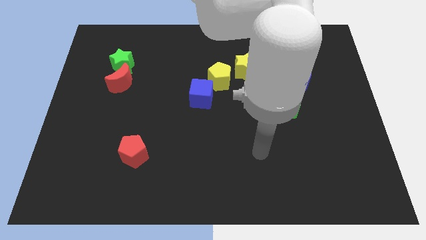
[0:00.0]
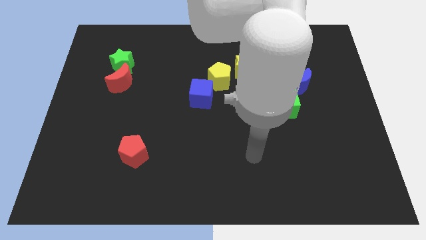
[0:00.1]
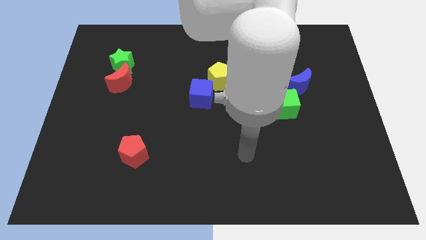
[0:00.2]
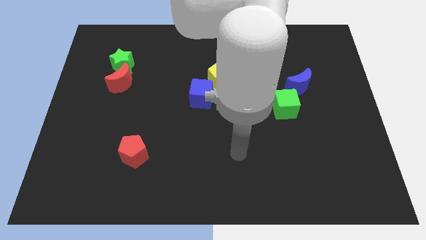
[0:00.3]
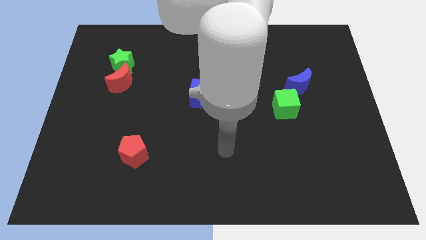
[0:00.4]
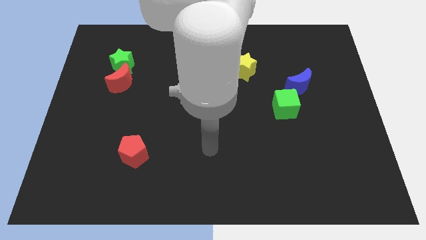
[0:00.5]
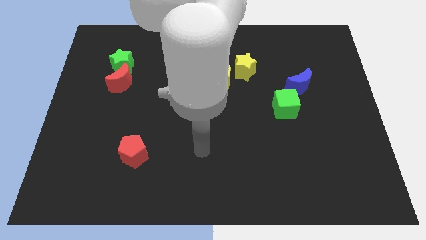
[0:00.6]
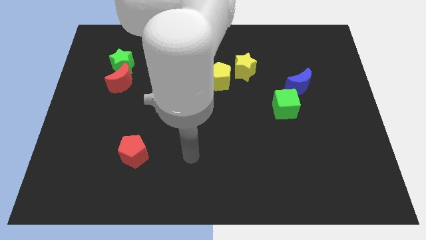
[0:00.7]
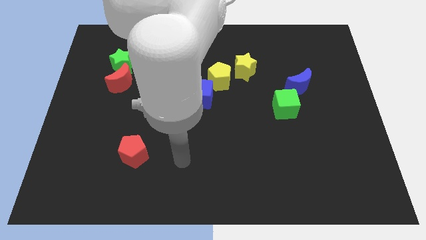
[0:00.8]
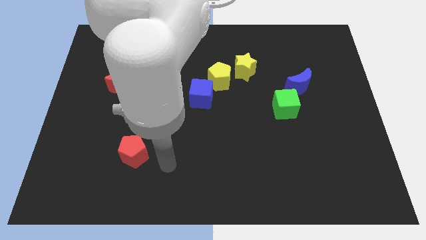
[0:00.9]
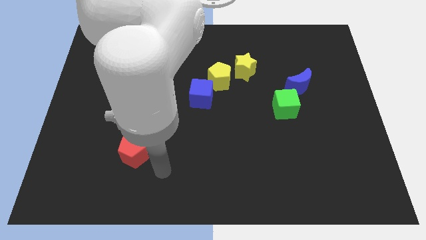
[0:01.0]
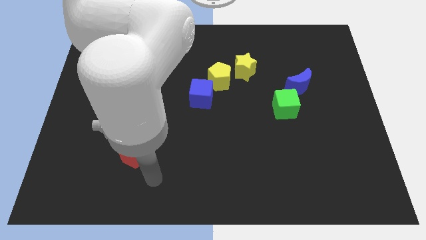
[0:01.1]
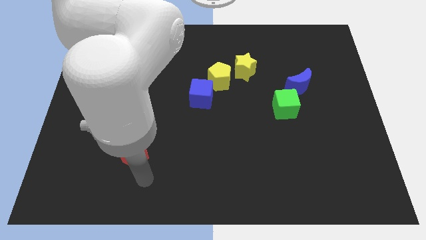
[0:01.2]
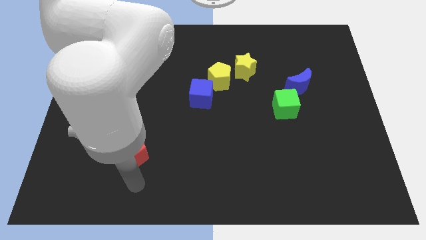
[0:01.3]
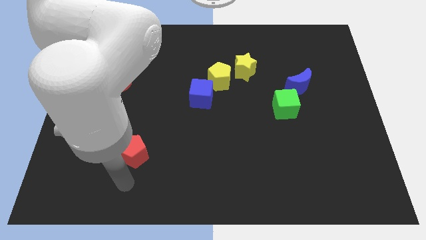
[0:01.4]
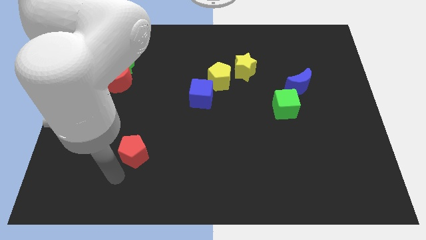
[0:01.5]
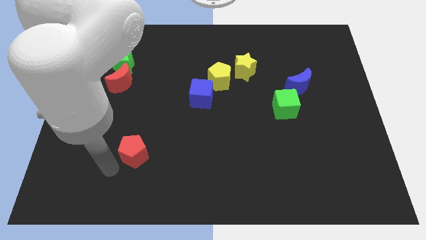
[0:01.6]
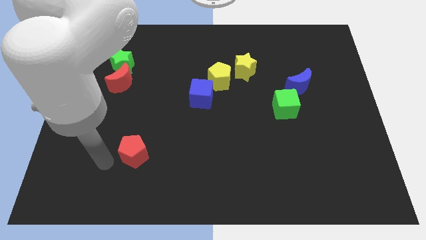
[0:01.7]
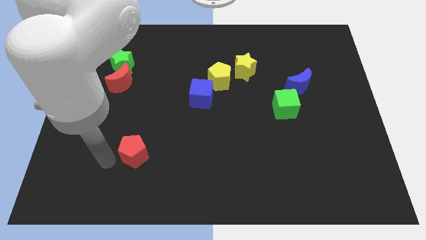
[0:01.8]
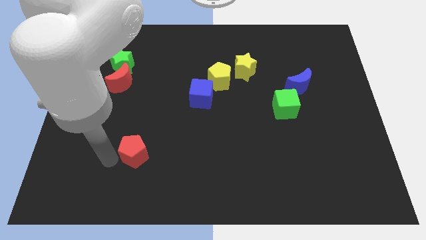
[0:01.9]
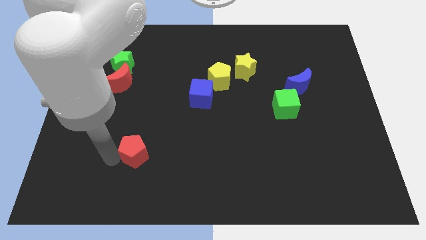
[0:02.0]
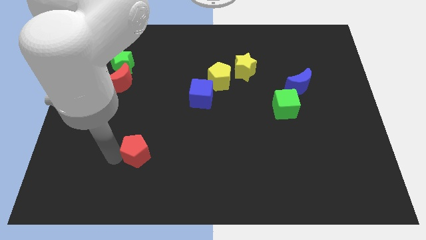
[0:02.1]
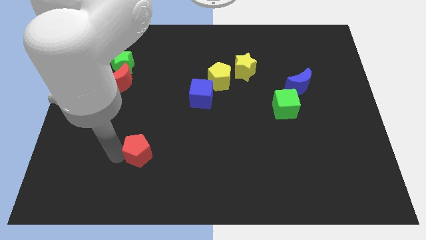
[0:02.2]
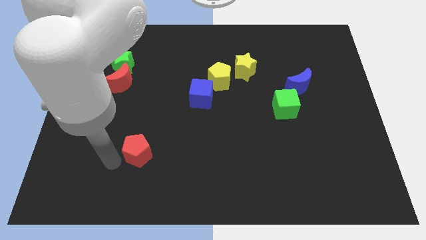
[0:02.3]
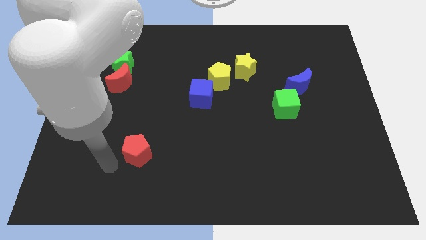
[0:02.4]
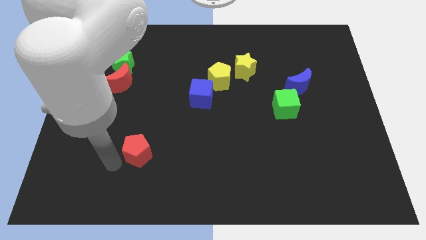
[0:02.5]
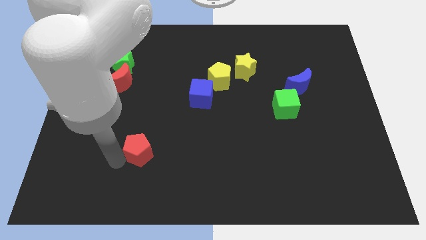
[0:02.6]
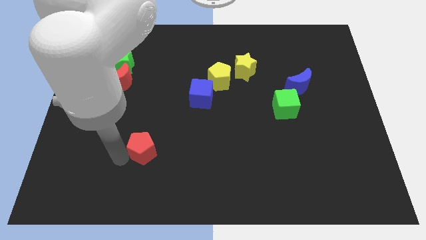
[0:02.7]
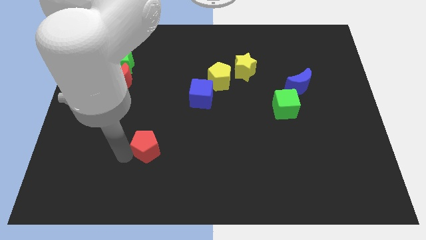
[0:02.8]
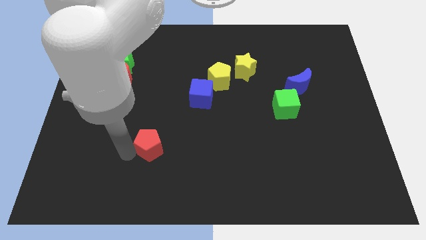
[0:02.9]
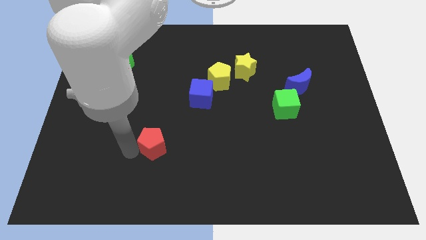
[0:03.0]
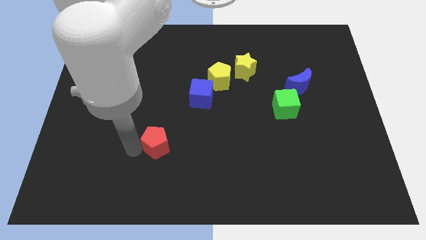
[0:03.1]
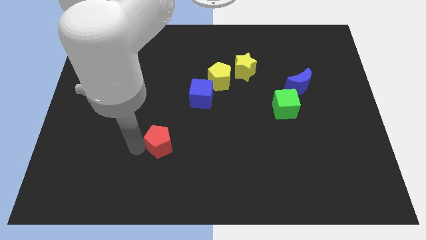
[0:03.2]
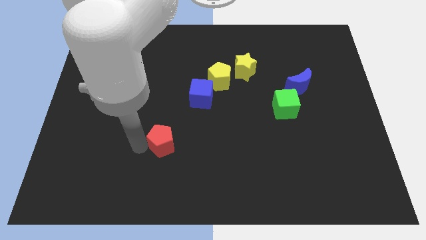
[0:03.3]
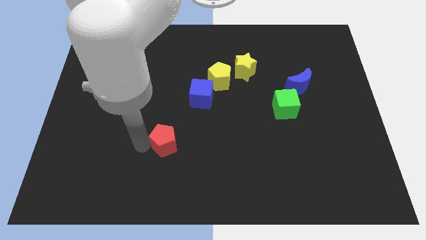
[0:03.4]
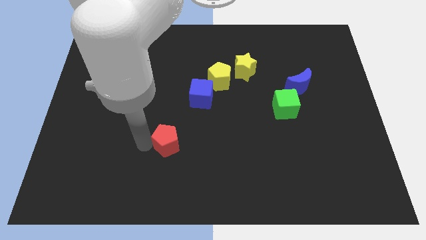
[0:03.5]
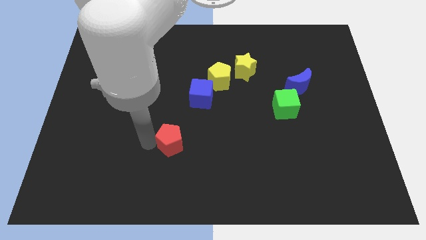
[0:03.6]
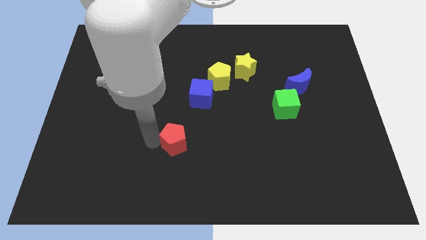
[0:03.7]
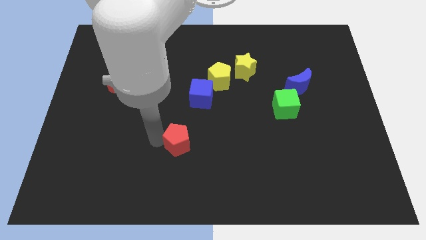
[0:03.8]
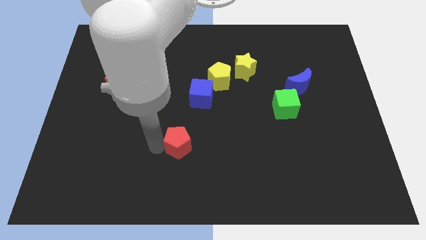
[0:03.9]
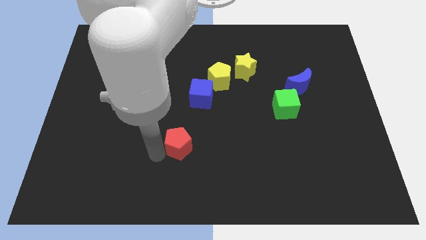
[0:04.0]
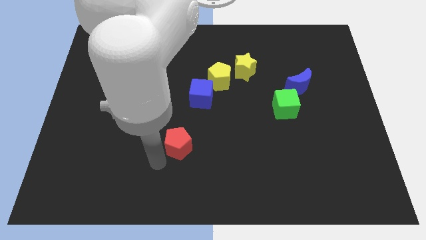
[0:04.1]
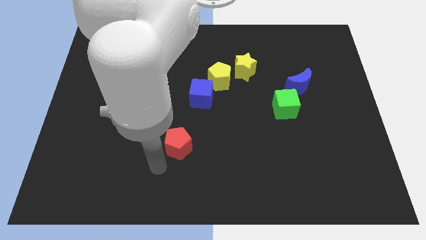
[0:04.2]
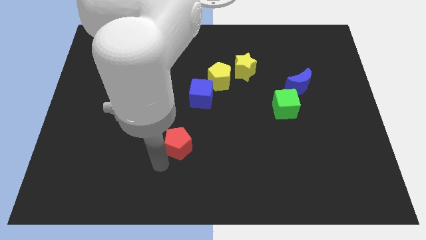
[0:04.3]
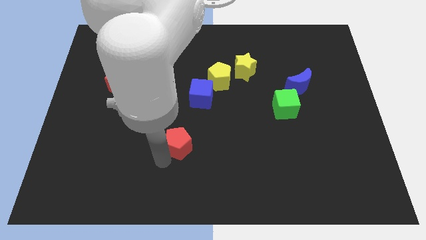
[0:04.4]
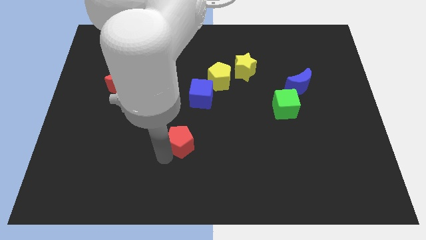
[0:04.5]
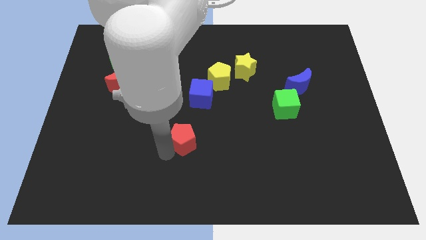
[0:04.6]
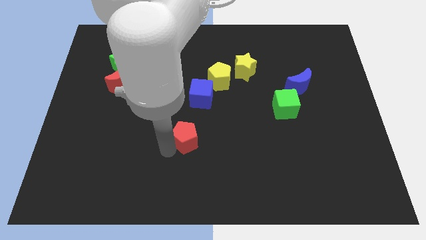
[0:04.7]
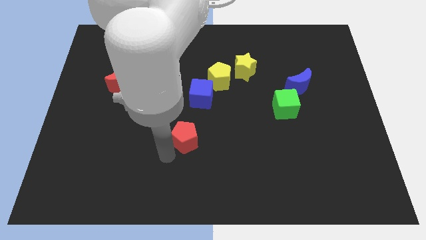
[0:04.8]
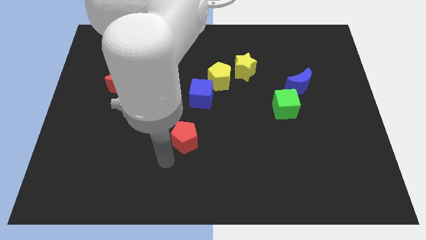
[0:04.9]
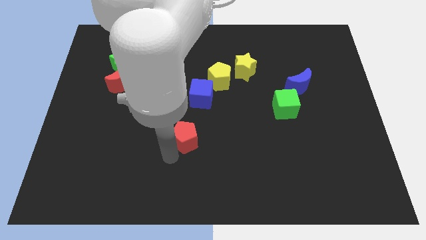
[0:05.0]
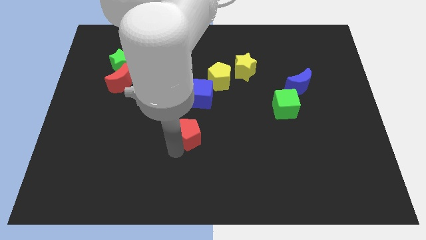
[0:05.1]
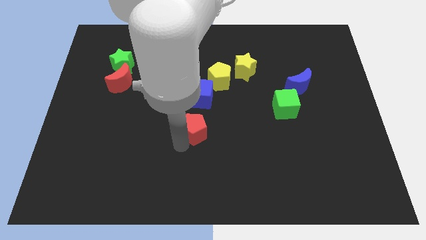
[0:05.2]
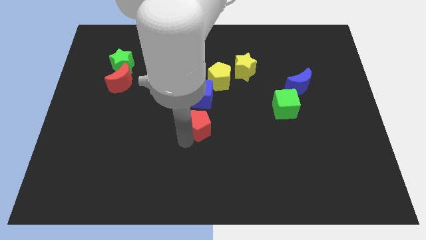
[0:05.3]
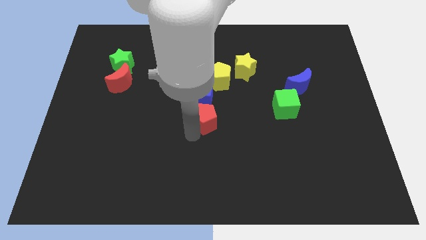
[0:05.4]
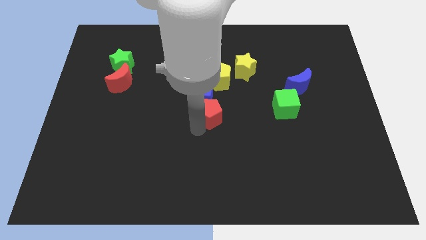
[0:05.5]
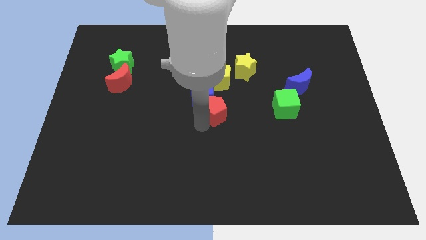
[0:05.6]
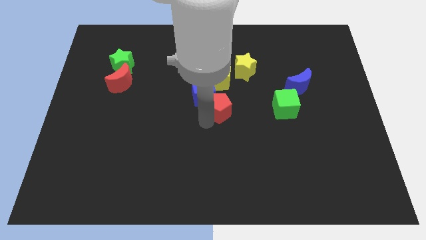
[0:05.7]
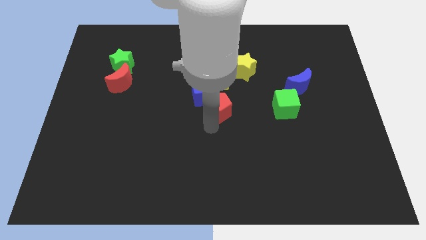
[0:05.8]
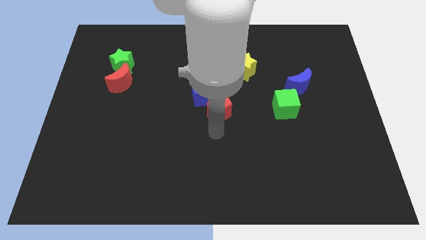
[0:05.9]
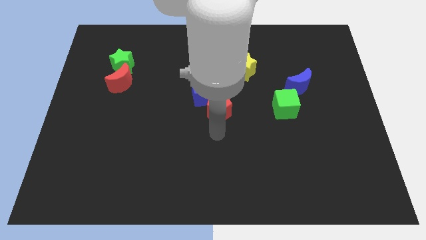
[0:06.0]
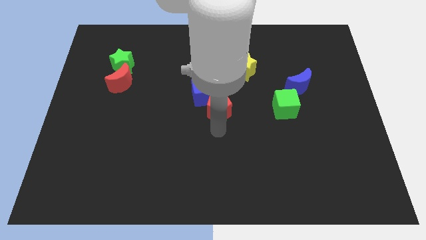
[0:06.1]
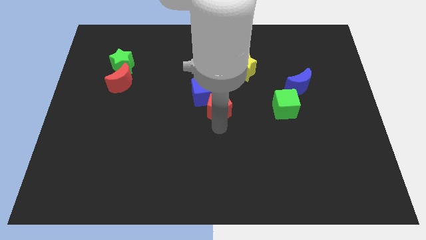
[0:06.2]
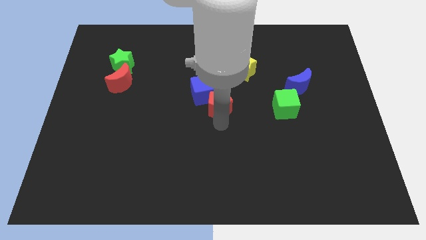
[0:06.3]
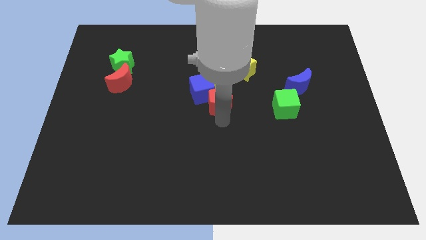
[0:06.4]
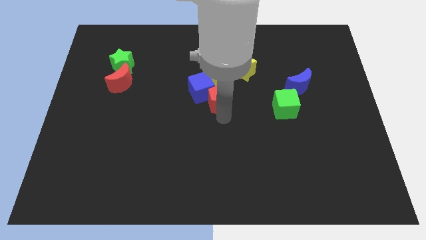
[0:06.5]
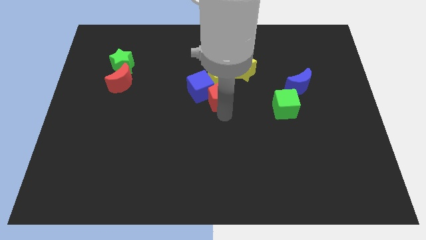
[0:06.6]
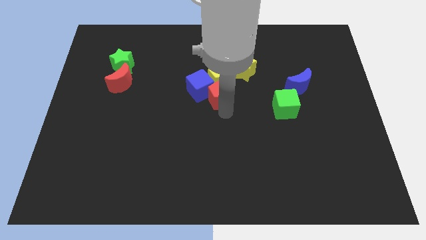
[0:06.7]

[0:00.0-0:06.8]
push the red pentagon to the yellow pentagon
